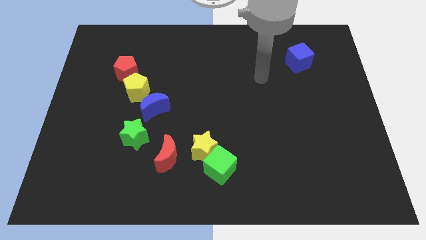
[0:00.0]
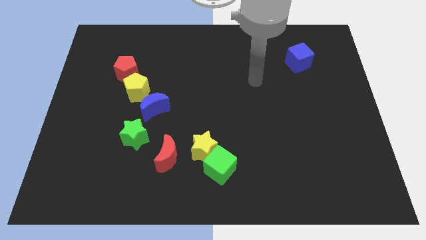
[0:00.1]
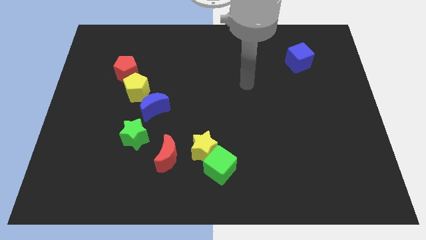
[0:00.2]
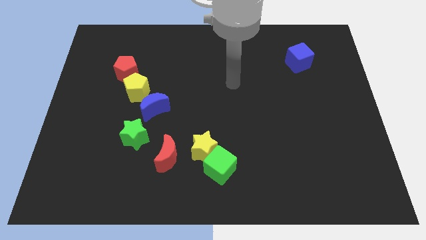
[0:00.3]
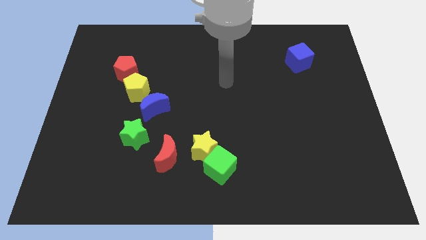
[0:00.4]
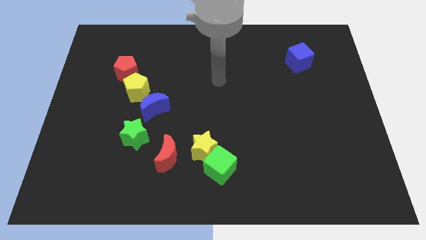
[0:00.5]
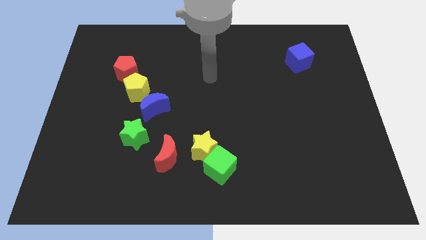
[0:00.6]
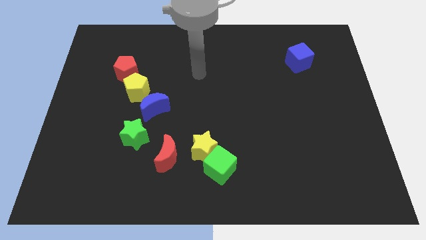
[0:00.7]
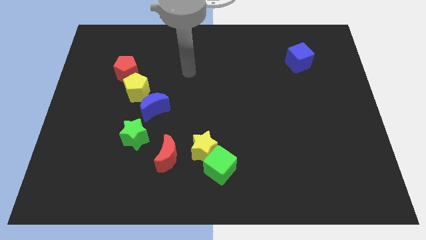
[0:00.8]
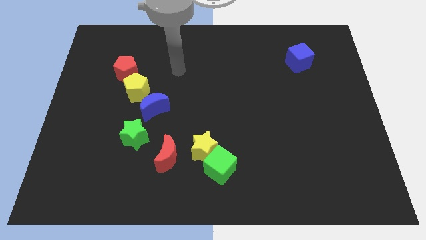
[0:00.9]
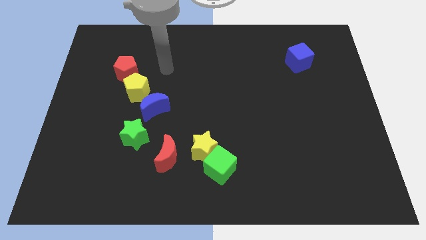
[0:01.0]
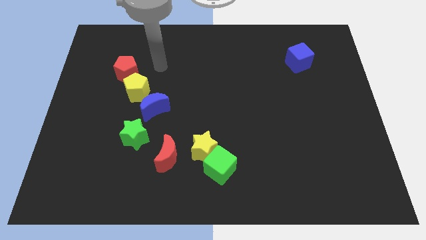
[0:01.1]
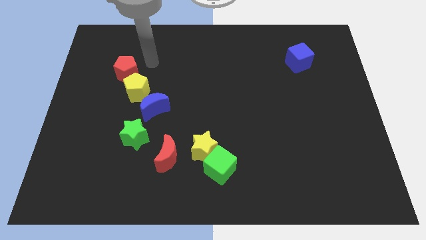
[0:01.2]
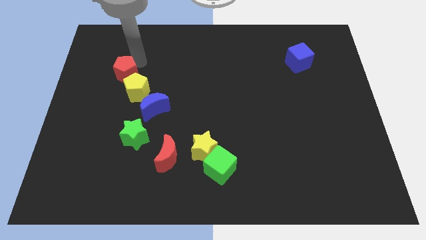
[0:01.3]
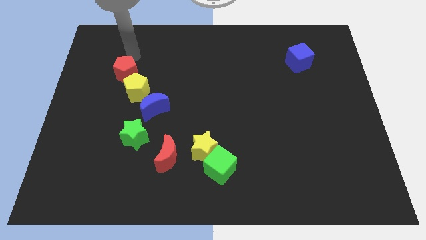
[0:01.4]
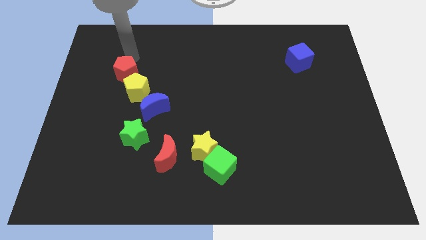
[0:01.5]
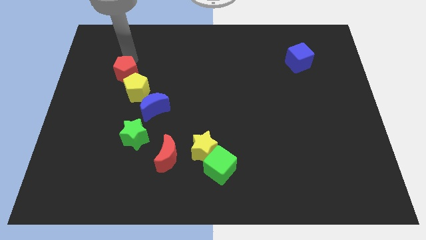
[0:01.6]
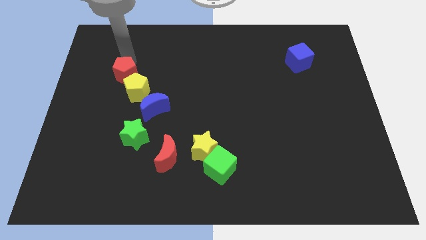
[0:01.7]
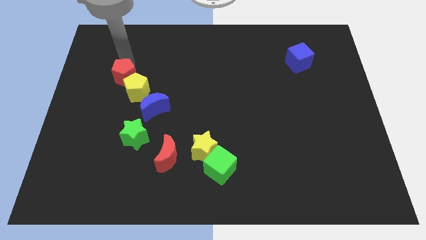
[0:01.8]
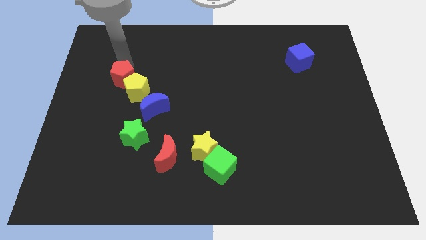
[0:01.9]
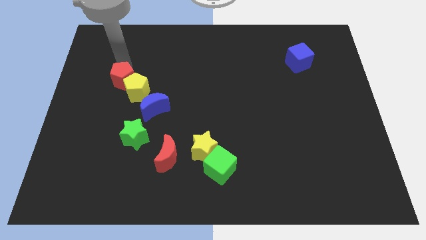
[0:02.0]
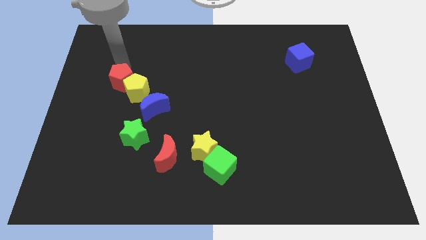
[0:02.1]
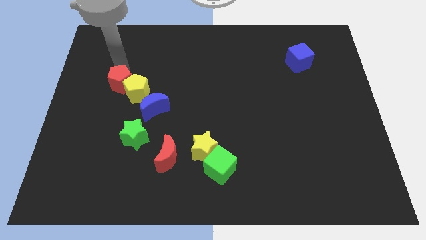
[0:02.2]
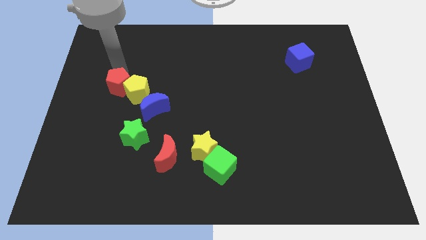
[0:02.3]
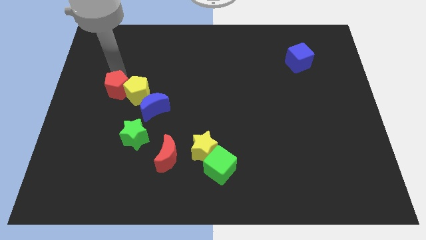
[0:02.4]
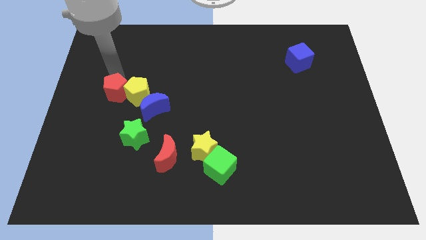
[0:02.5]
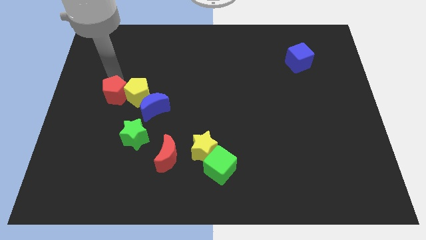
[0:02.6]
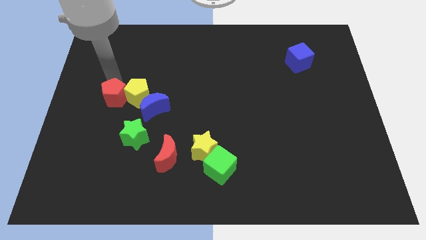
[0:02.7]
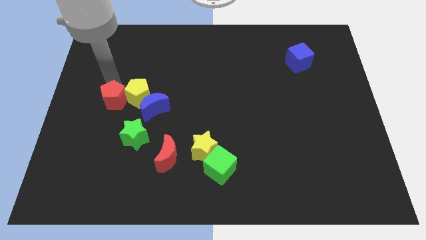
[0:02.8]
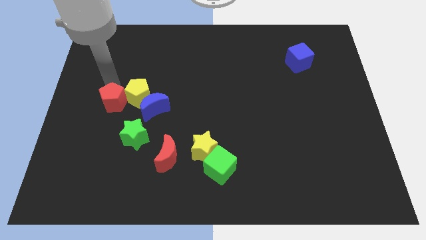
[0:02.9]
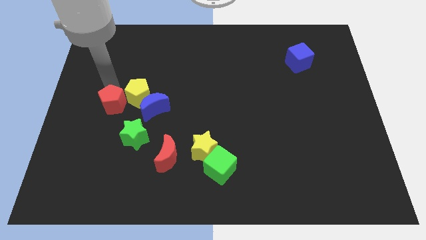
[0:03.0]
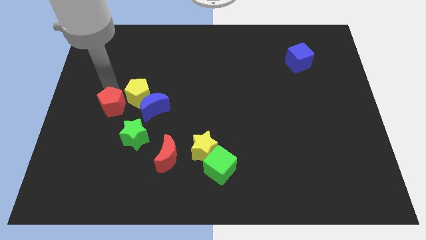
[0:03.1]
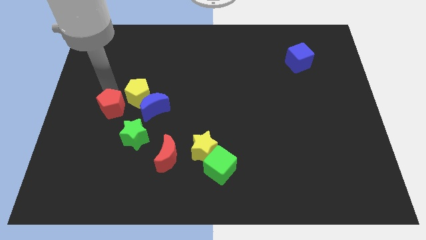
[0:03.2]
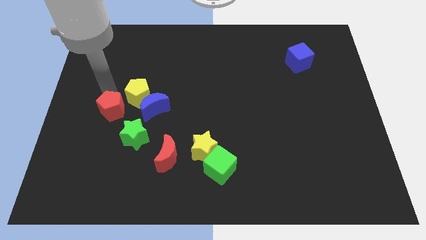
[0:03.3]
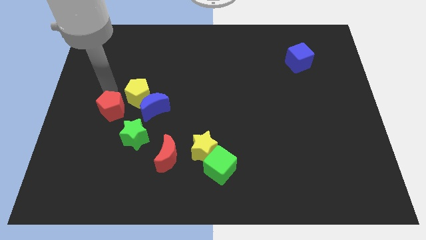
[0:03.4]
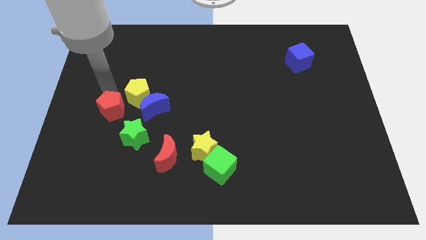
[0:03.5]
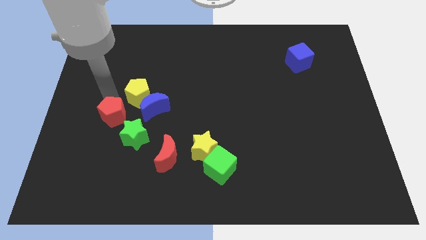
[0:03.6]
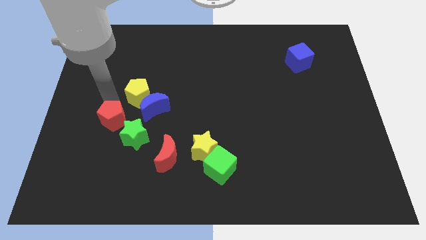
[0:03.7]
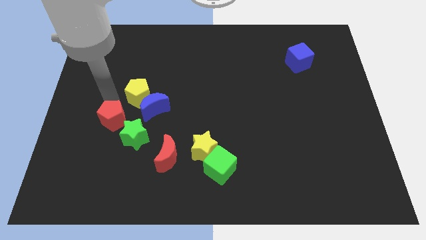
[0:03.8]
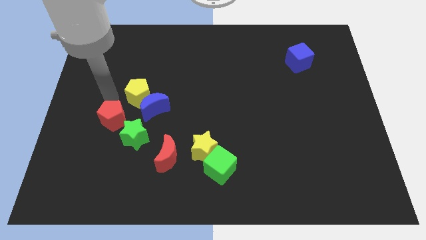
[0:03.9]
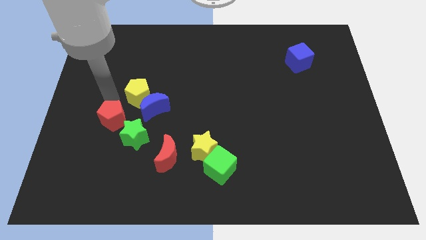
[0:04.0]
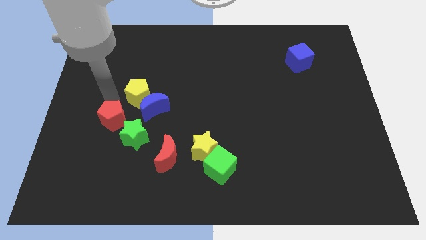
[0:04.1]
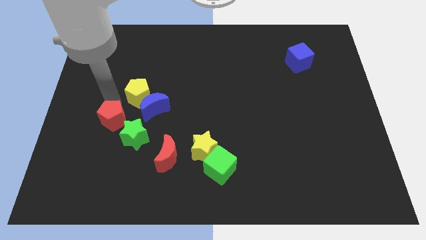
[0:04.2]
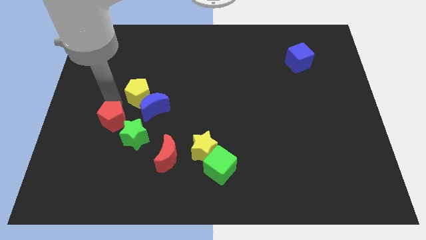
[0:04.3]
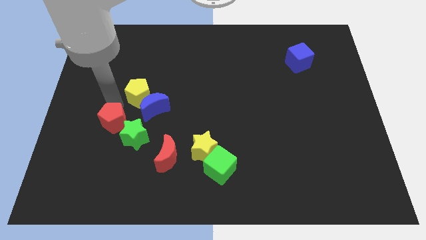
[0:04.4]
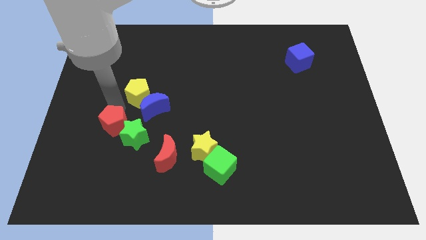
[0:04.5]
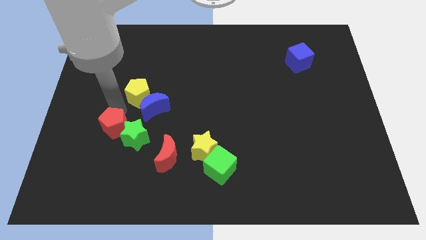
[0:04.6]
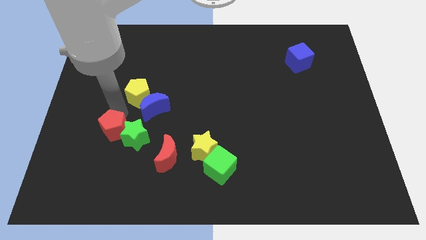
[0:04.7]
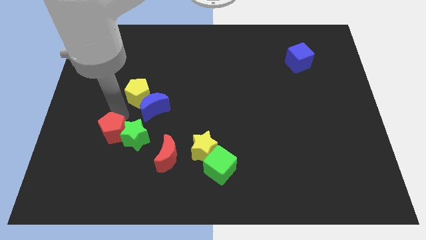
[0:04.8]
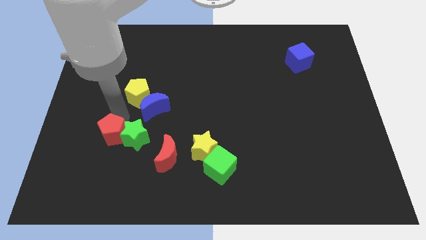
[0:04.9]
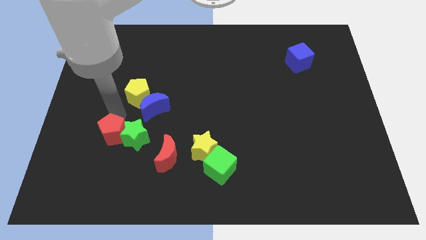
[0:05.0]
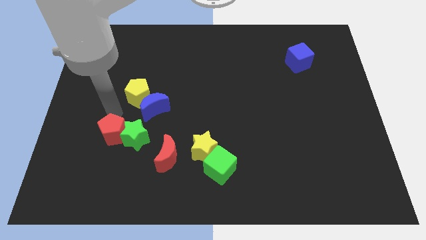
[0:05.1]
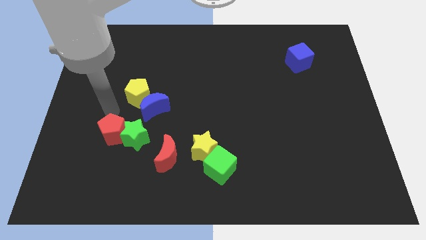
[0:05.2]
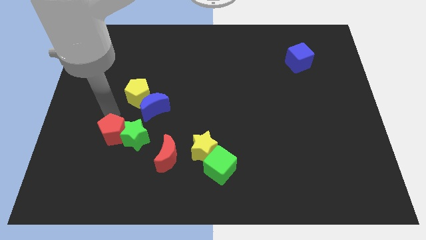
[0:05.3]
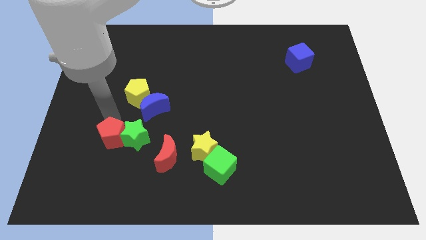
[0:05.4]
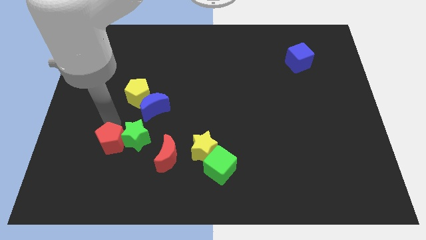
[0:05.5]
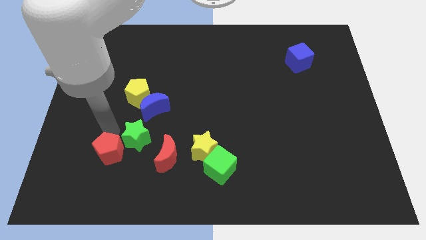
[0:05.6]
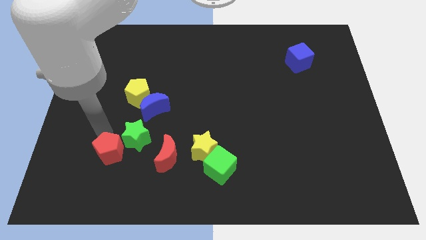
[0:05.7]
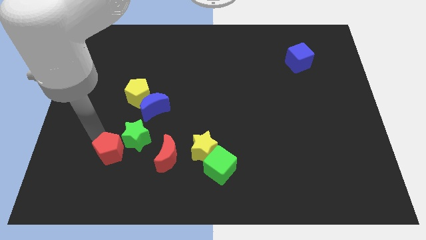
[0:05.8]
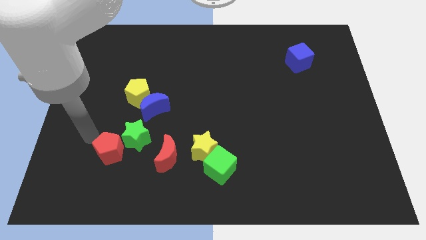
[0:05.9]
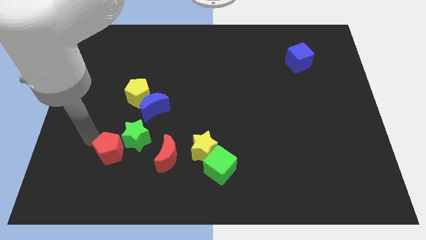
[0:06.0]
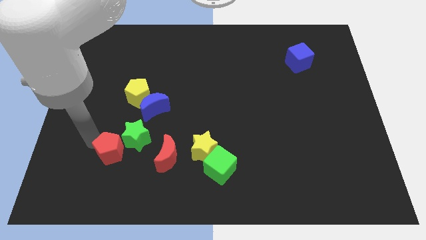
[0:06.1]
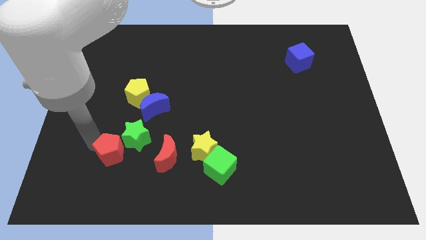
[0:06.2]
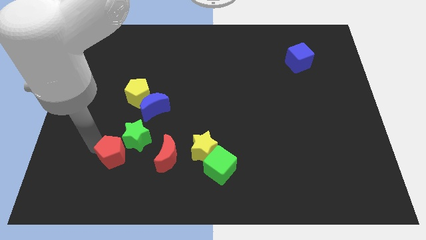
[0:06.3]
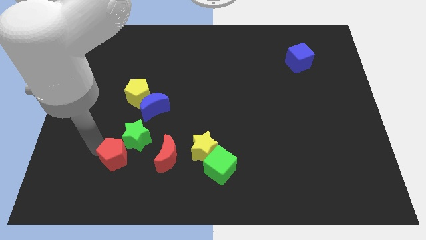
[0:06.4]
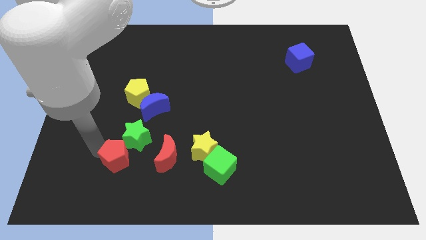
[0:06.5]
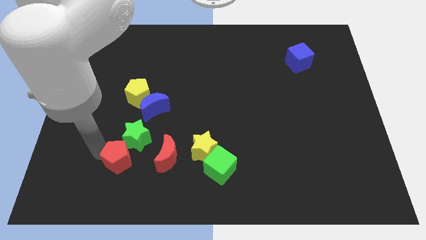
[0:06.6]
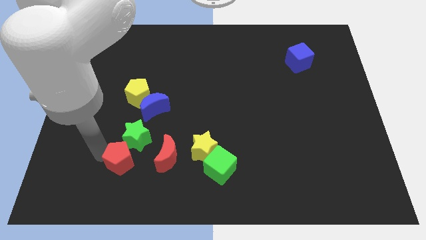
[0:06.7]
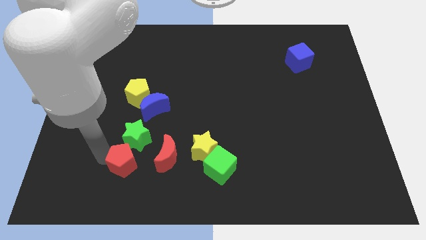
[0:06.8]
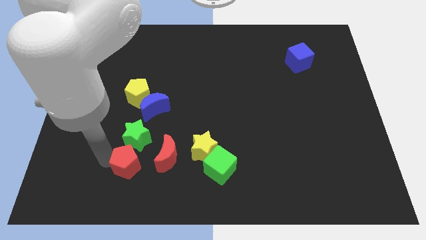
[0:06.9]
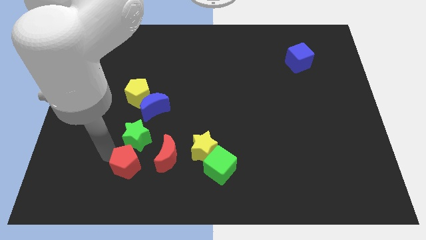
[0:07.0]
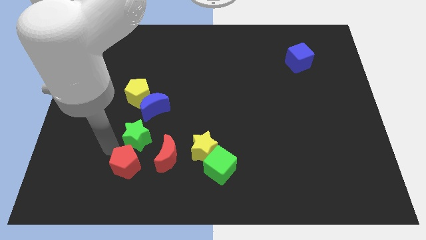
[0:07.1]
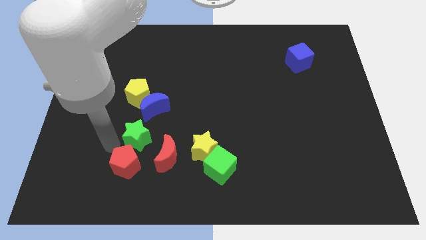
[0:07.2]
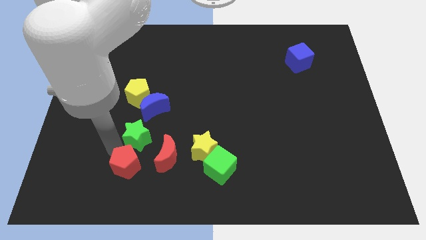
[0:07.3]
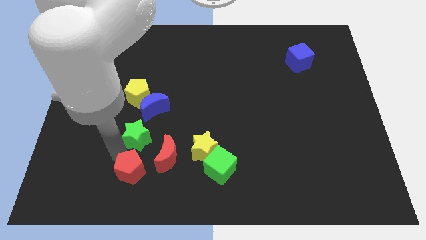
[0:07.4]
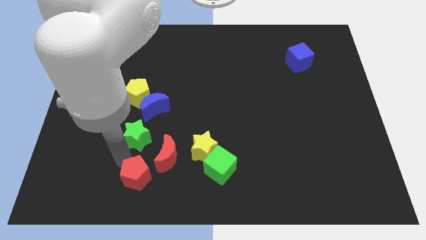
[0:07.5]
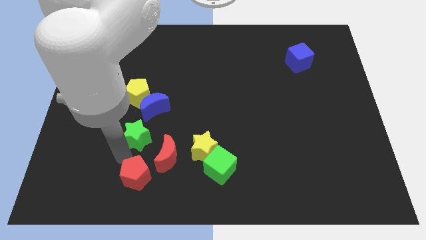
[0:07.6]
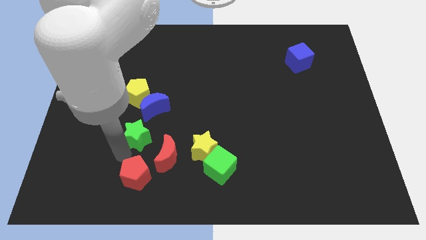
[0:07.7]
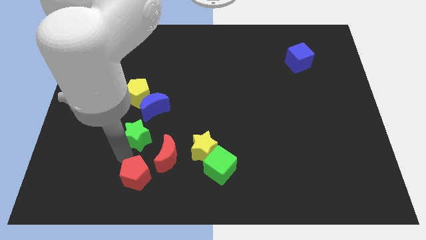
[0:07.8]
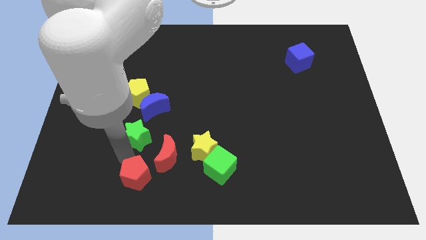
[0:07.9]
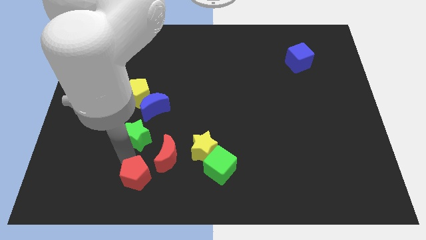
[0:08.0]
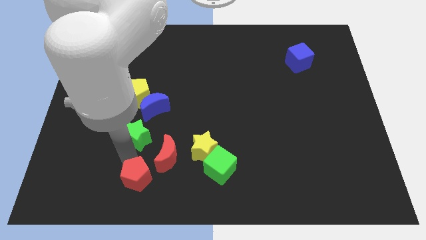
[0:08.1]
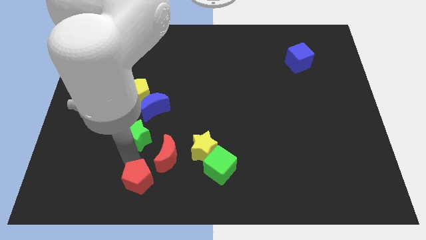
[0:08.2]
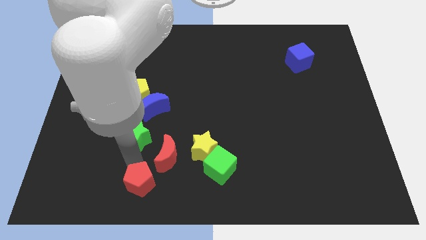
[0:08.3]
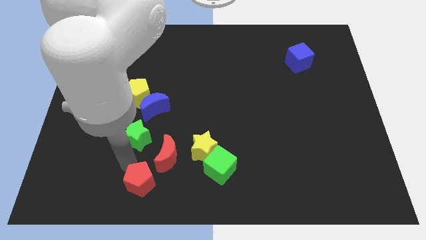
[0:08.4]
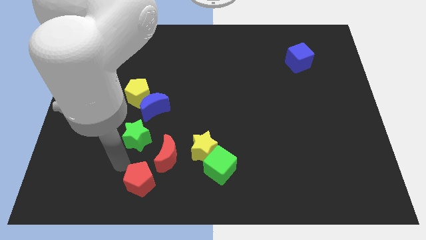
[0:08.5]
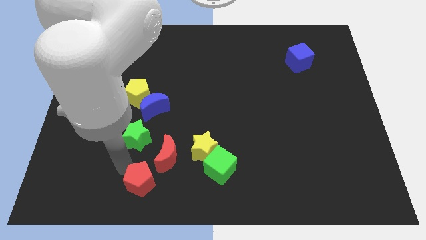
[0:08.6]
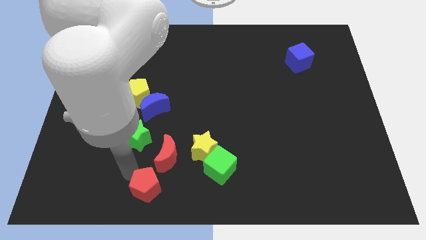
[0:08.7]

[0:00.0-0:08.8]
slide the red pentagon to the bottom
